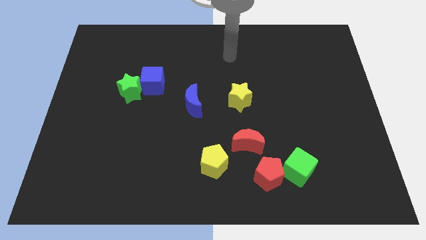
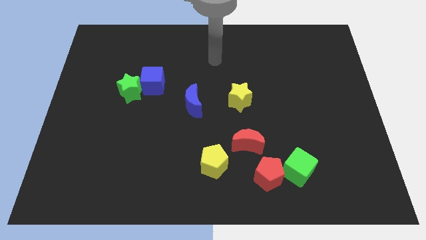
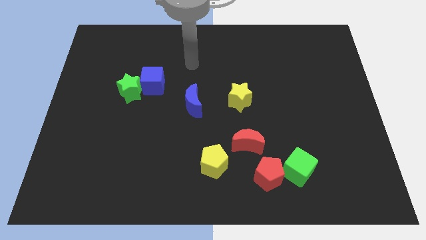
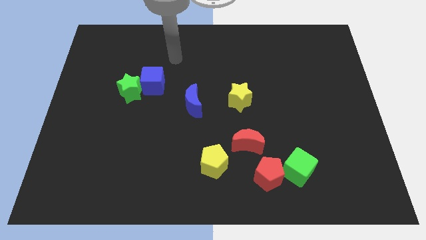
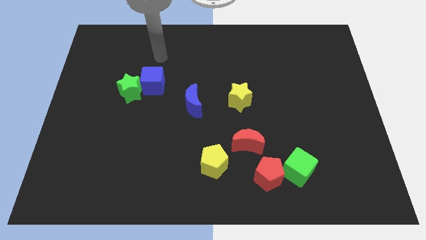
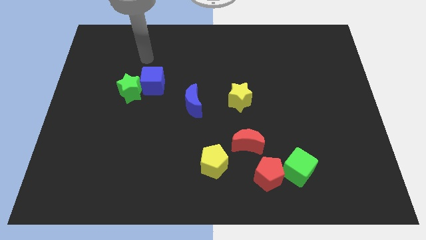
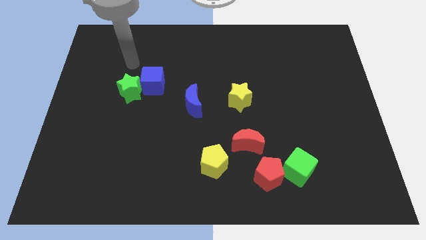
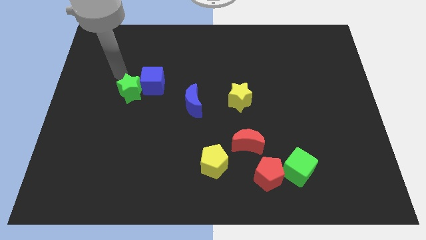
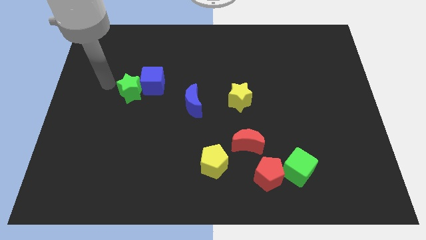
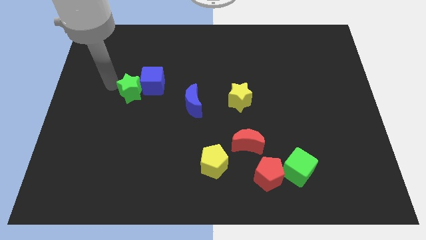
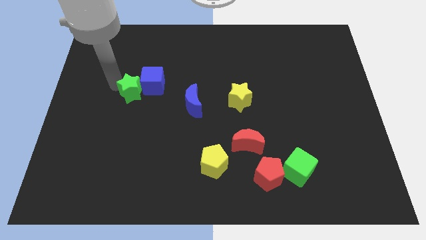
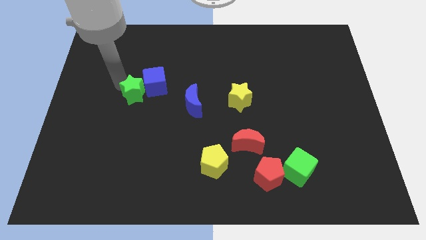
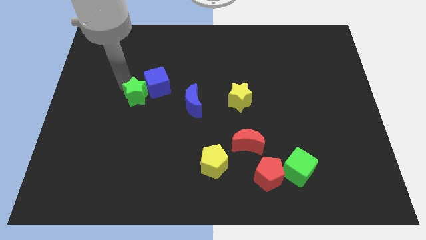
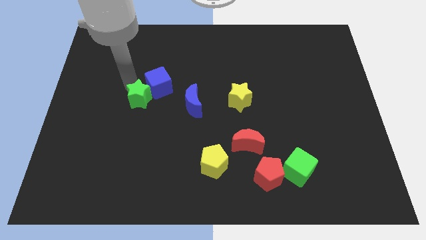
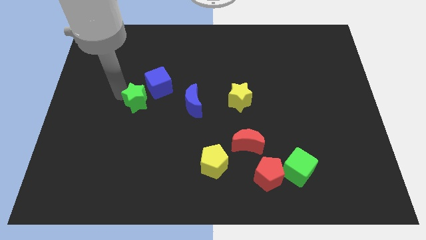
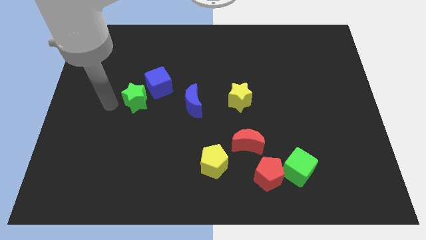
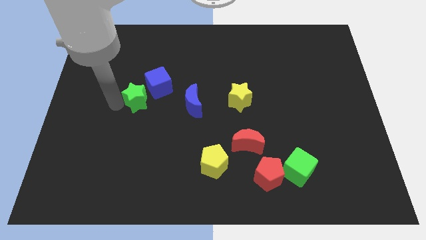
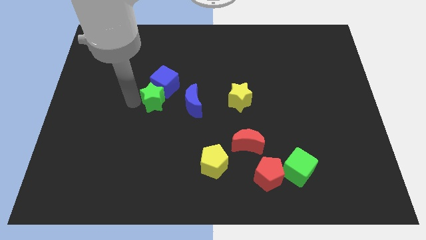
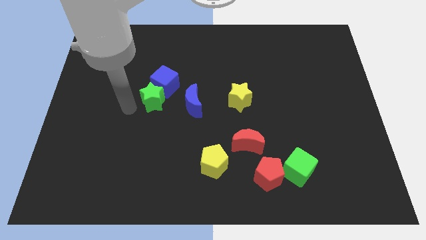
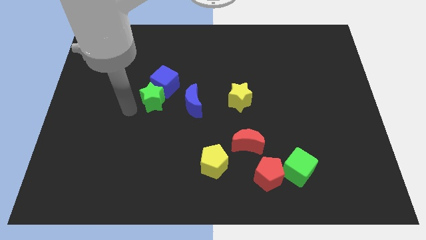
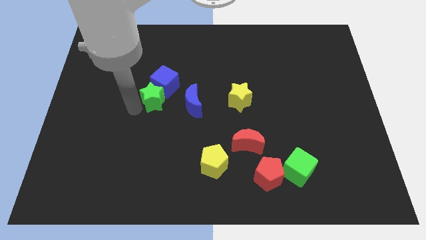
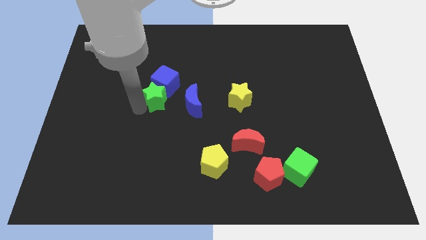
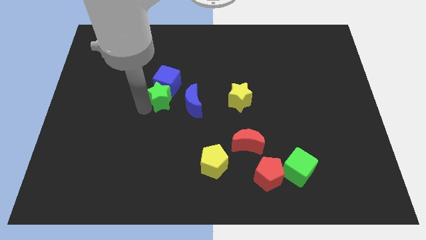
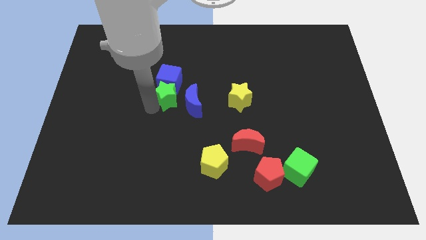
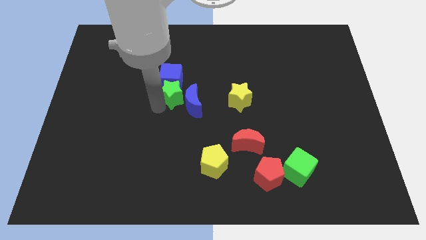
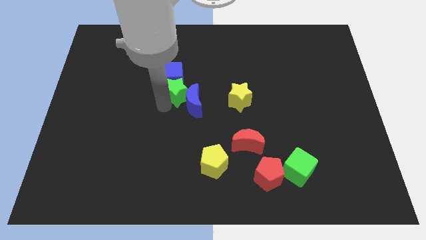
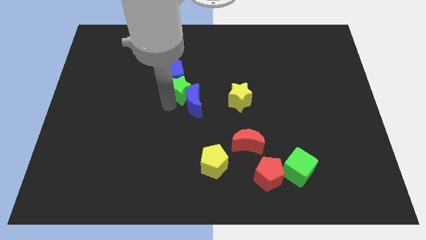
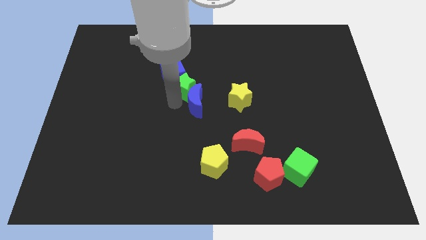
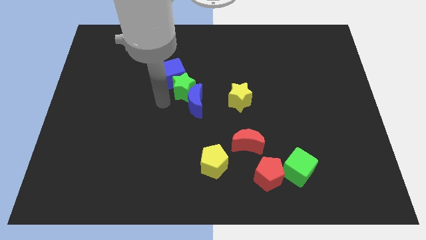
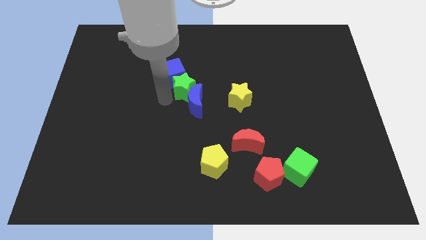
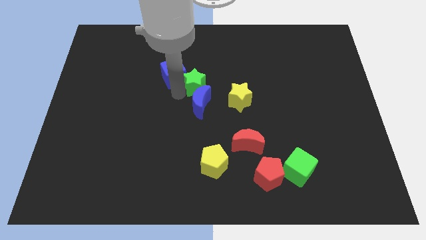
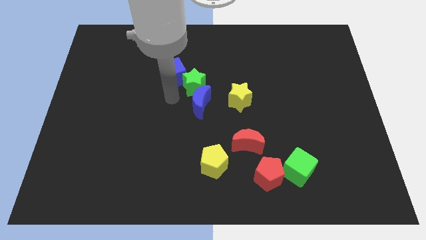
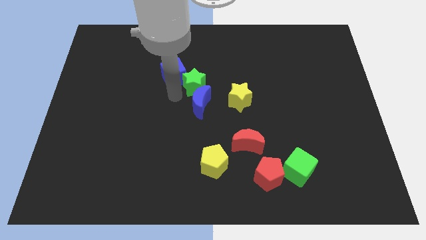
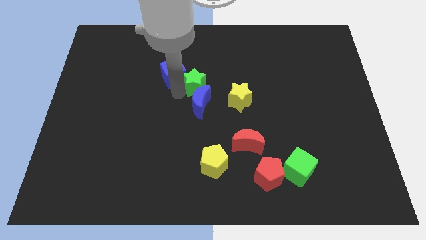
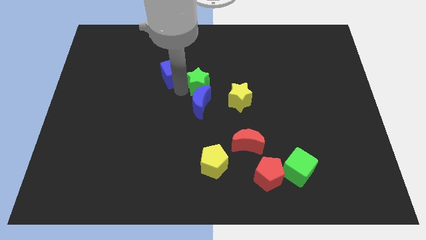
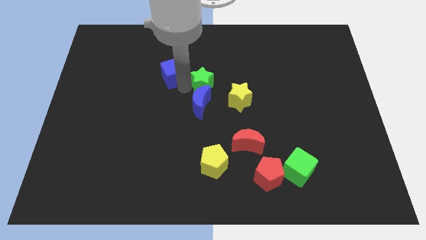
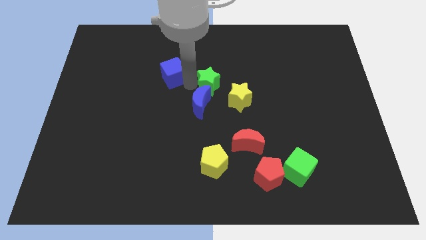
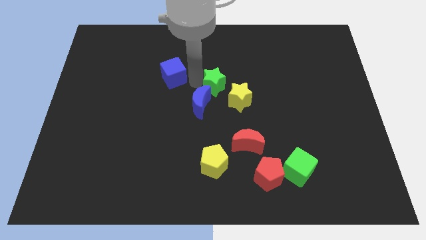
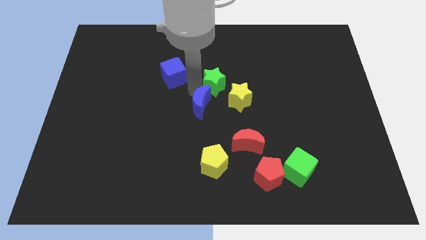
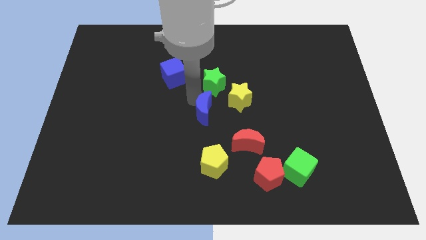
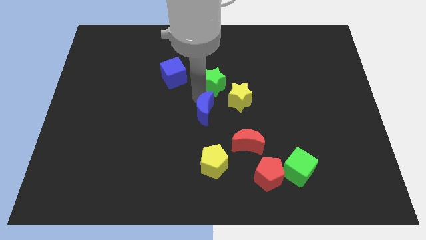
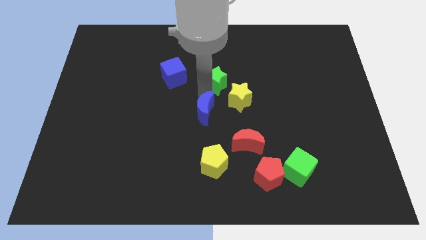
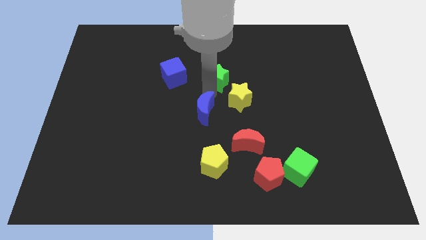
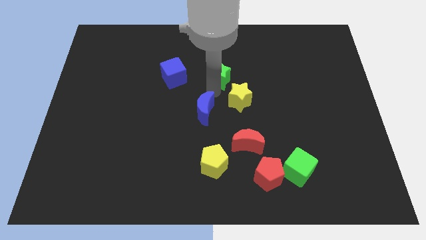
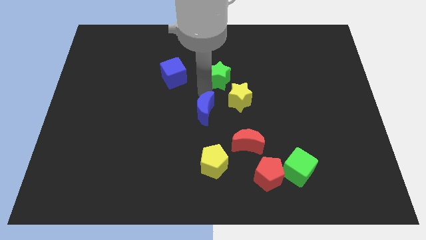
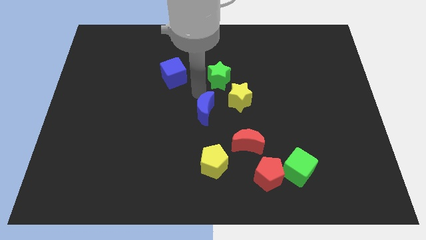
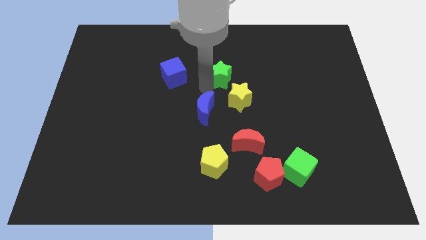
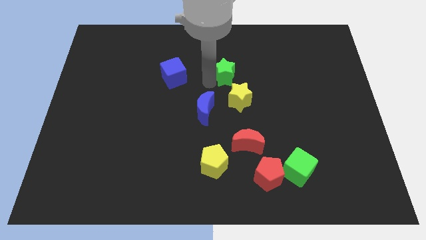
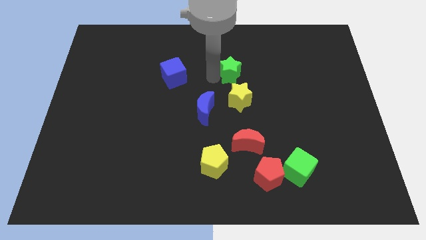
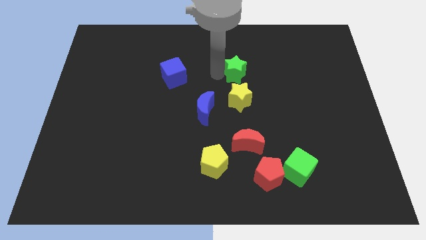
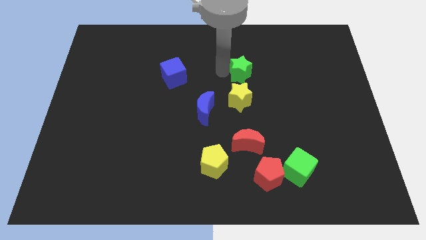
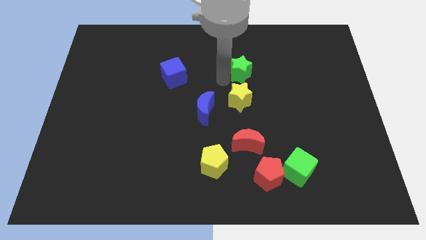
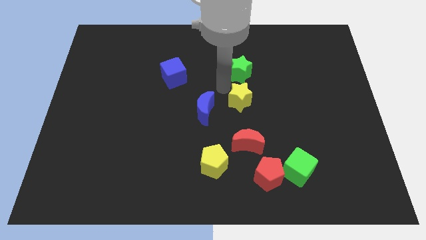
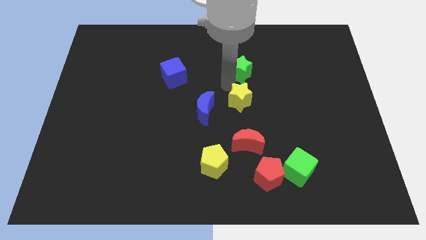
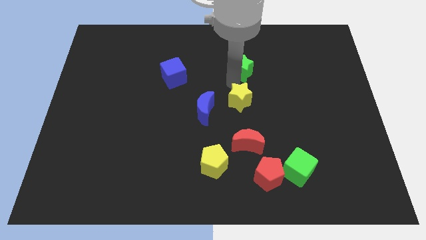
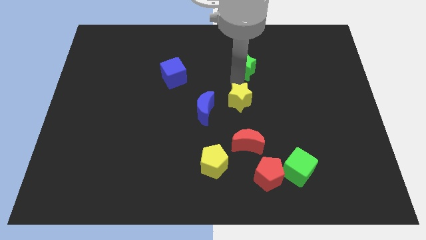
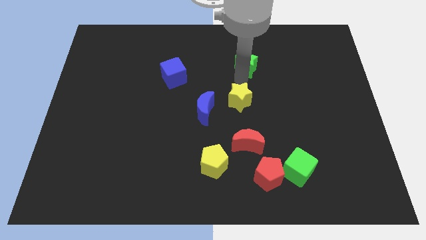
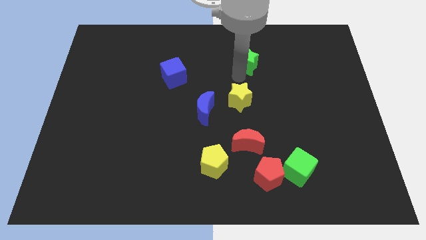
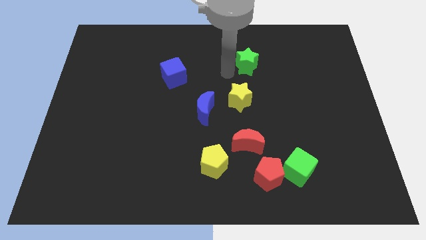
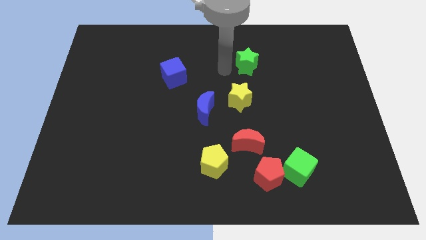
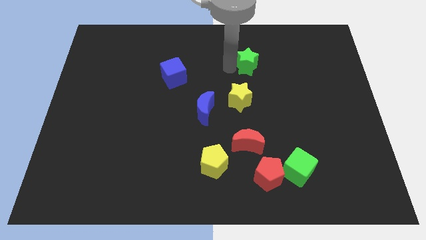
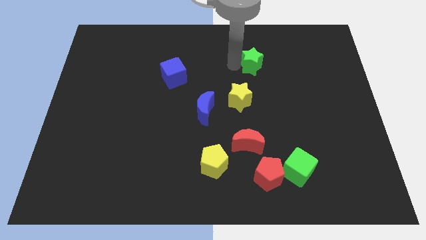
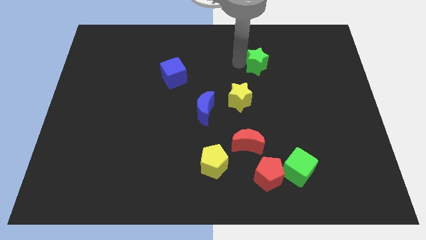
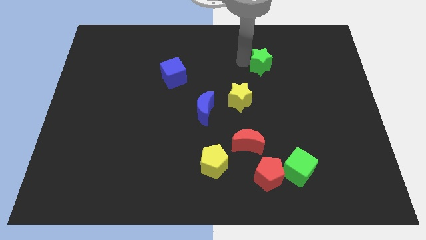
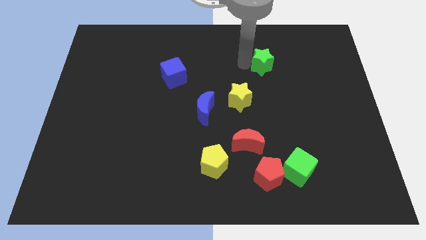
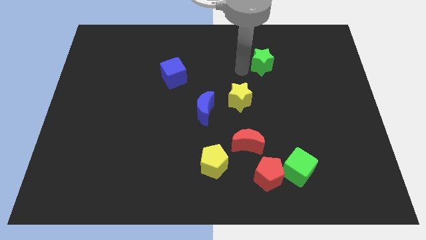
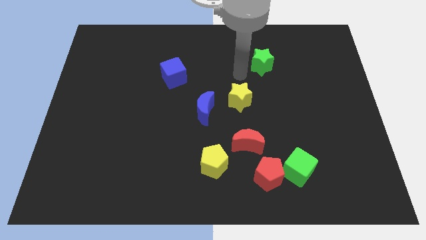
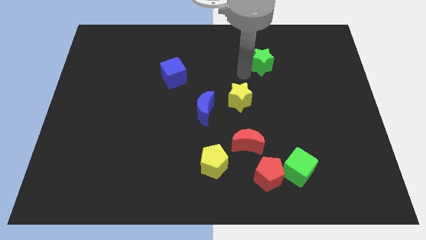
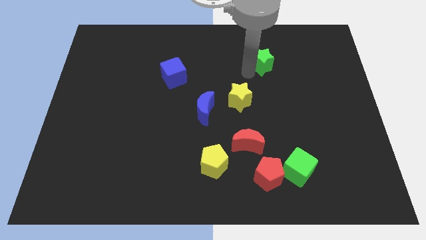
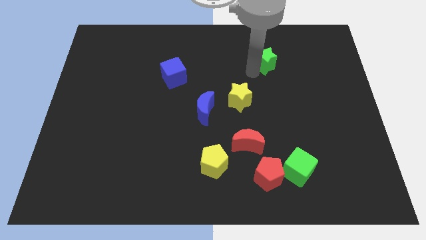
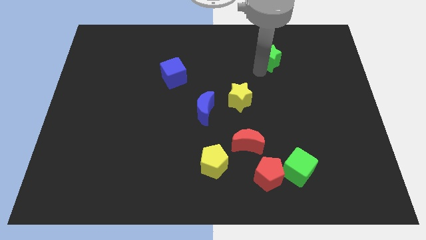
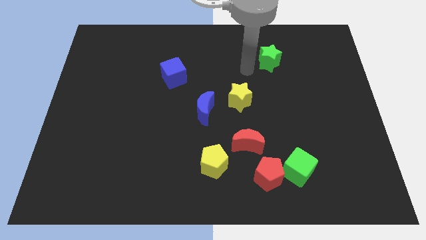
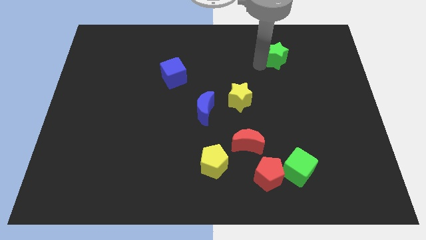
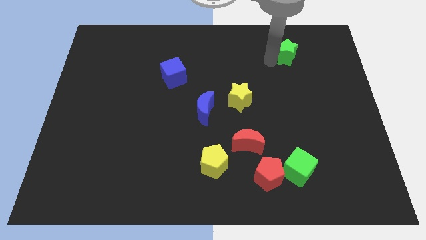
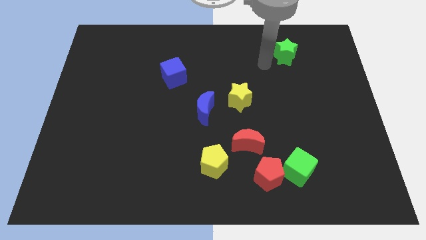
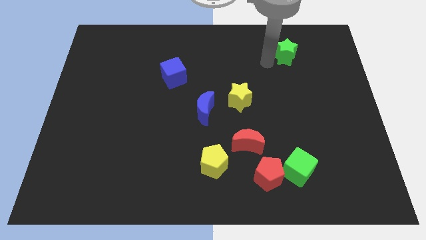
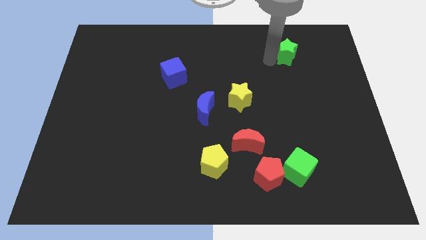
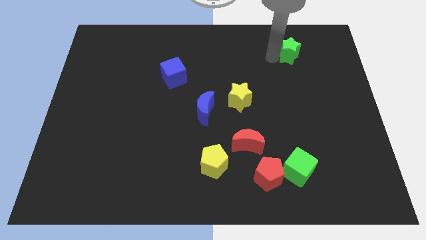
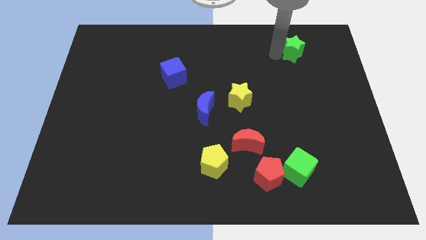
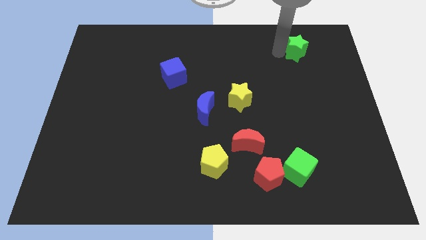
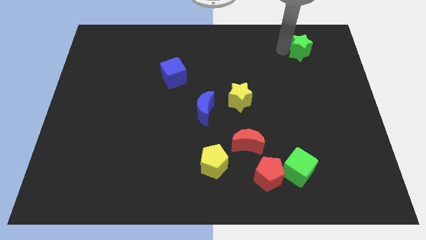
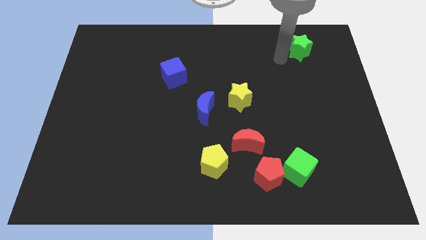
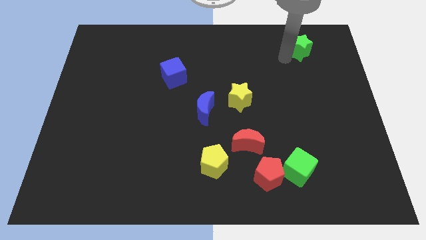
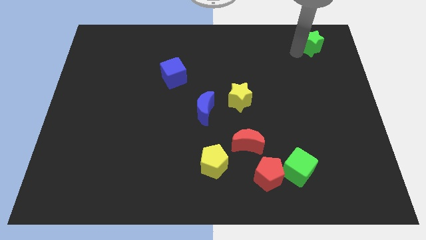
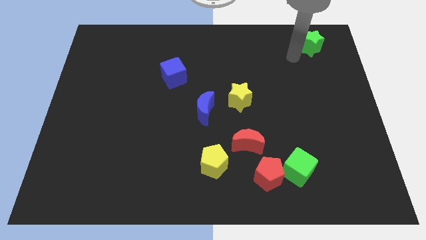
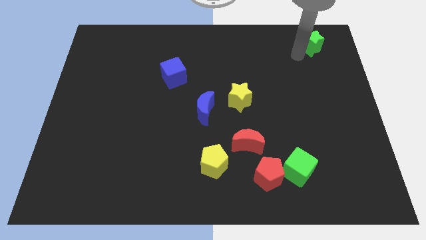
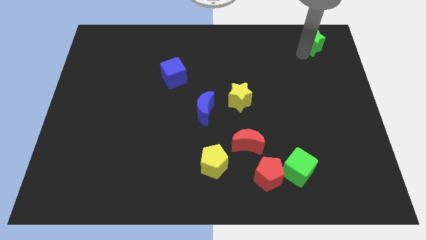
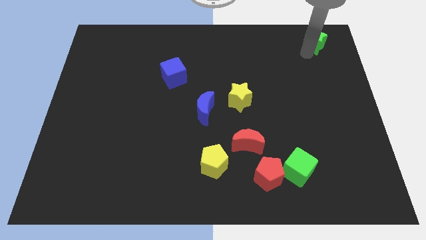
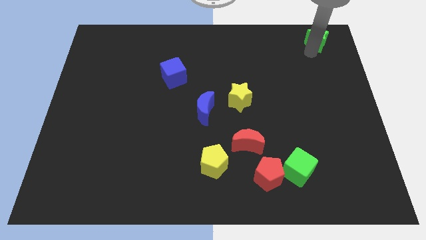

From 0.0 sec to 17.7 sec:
move the green star to the upper right corner
